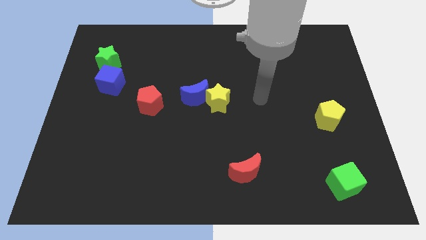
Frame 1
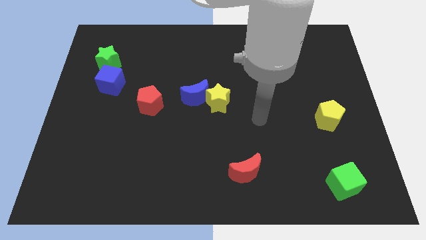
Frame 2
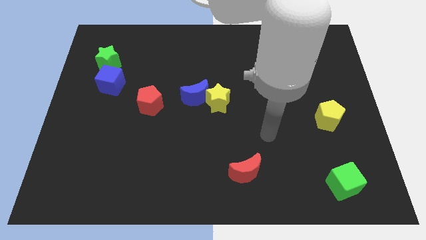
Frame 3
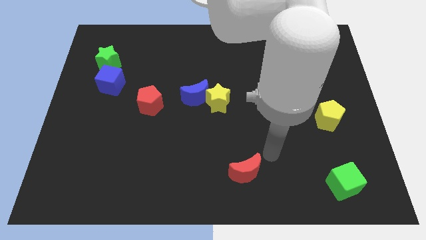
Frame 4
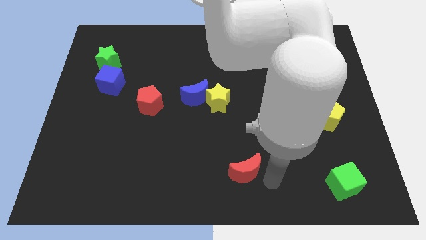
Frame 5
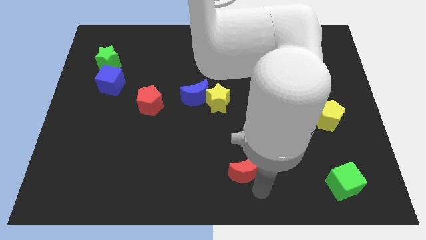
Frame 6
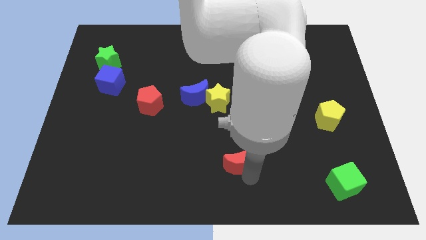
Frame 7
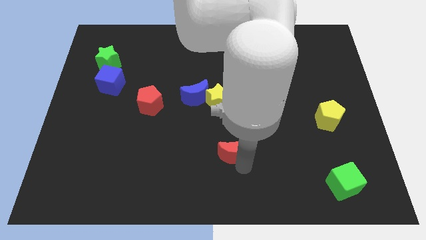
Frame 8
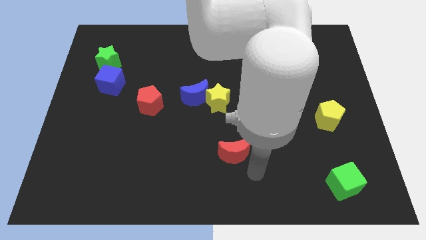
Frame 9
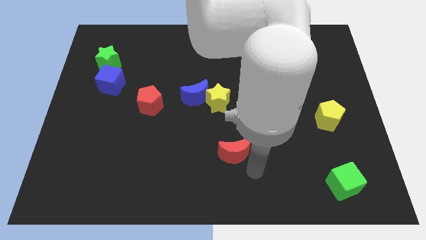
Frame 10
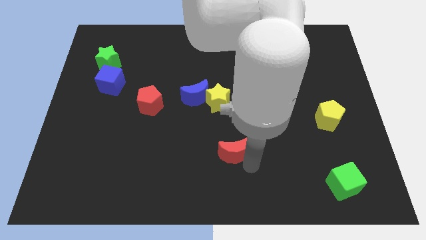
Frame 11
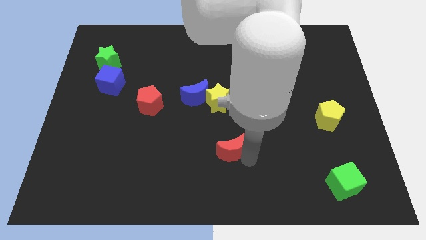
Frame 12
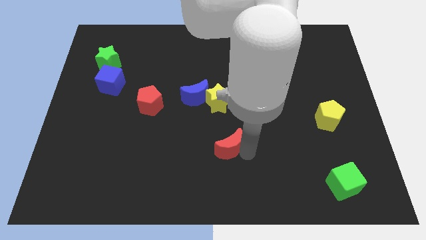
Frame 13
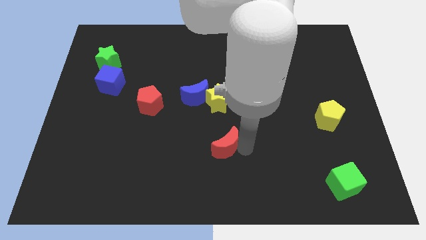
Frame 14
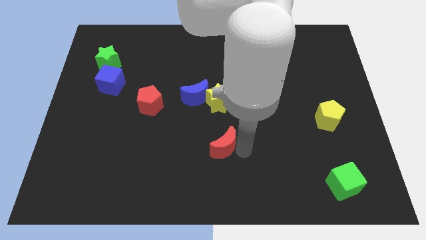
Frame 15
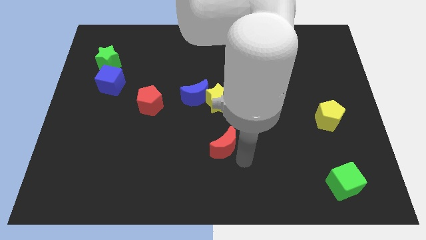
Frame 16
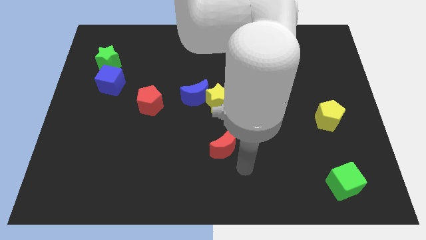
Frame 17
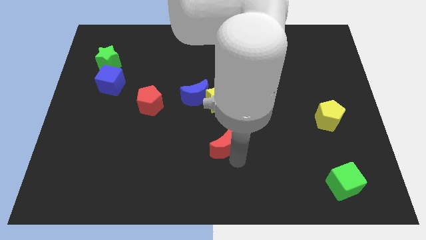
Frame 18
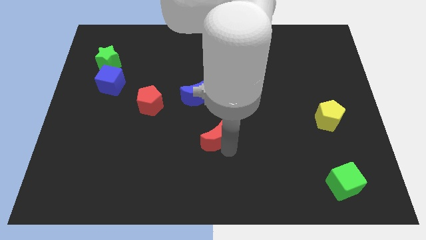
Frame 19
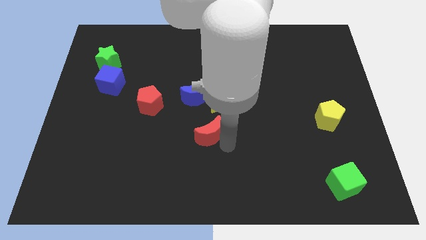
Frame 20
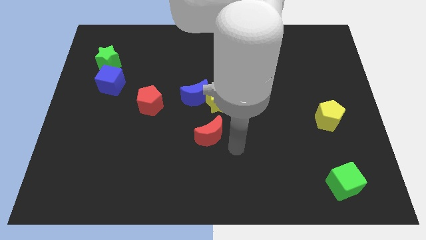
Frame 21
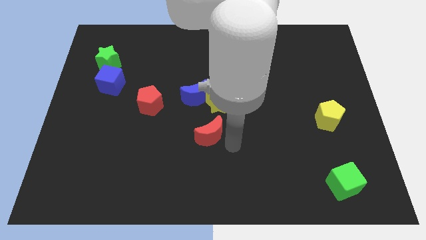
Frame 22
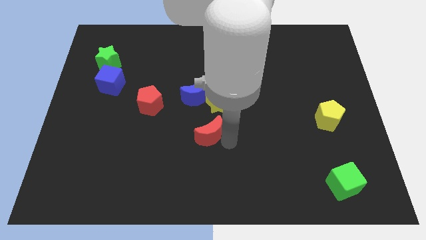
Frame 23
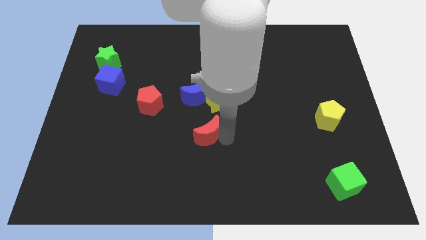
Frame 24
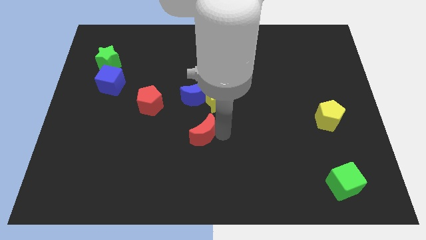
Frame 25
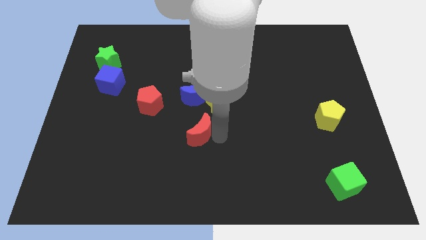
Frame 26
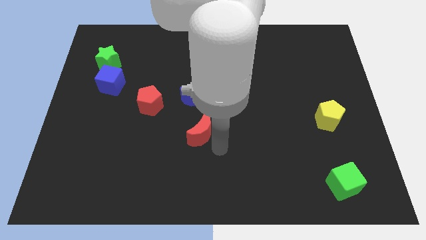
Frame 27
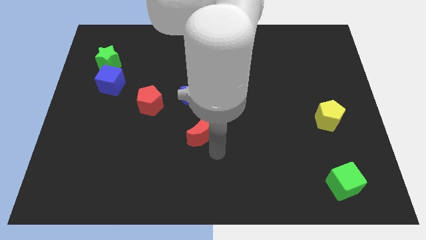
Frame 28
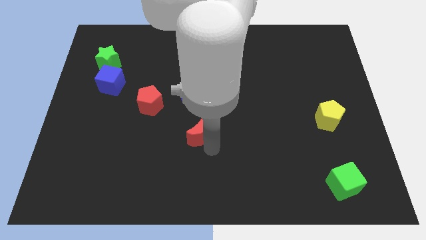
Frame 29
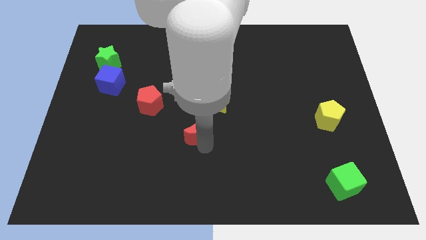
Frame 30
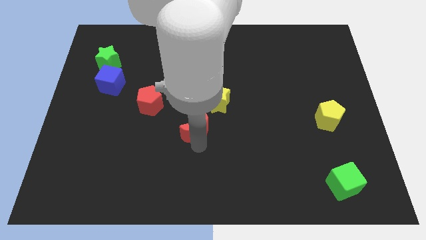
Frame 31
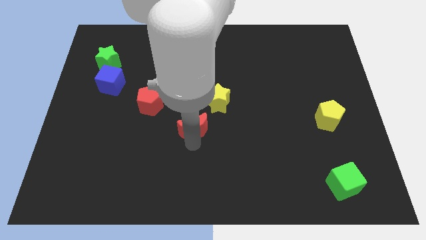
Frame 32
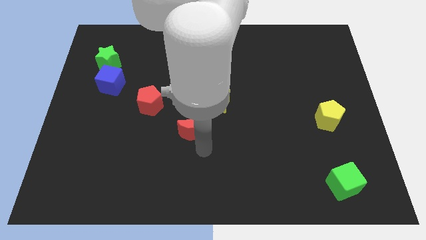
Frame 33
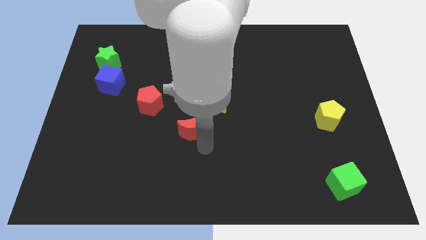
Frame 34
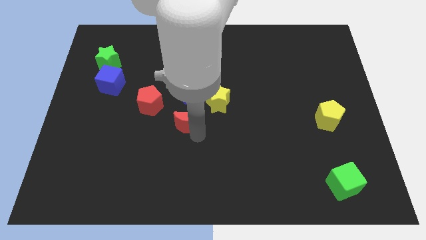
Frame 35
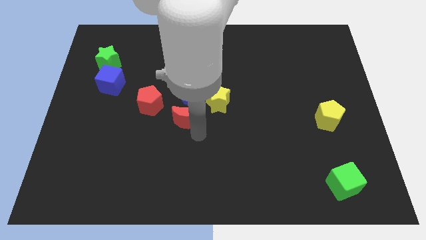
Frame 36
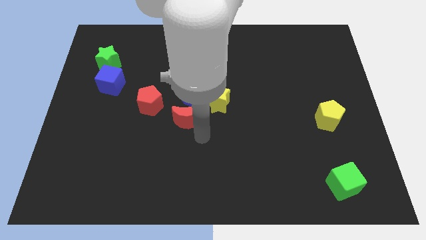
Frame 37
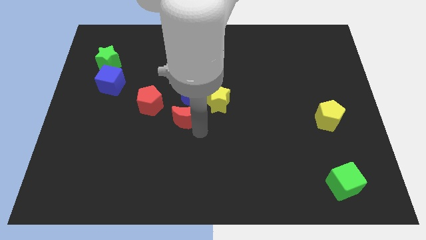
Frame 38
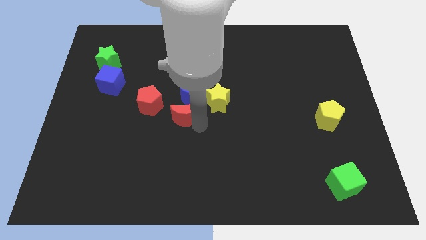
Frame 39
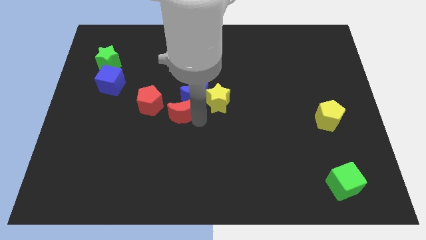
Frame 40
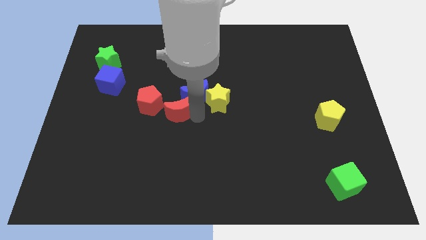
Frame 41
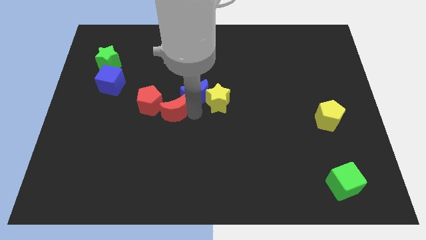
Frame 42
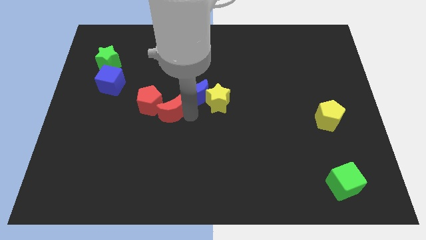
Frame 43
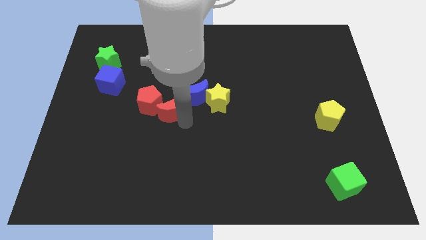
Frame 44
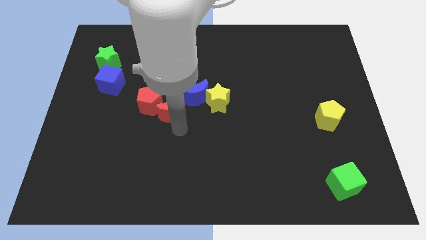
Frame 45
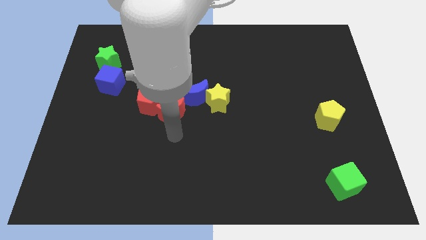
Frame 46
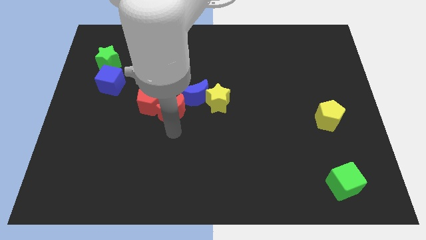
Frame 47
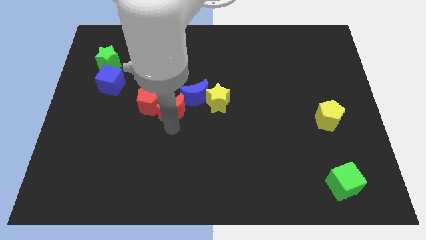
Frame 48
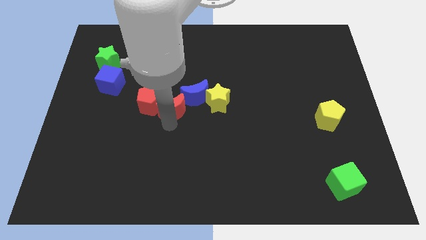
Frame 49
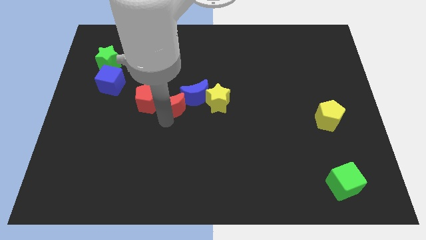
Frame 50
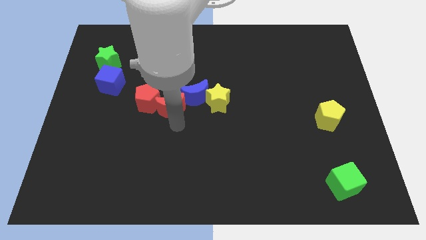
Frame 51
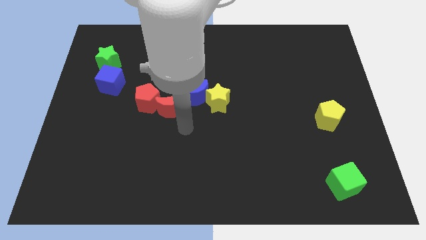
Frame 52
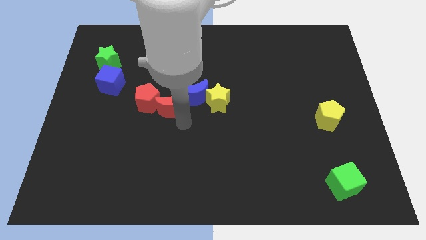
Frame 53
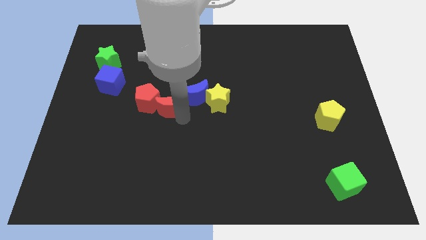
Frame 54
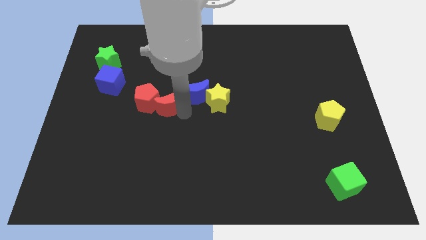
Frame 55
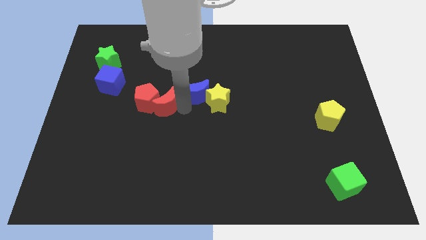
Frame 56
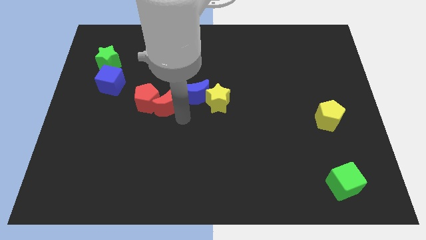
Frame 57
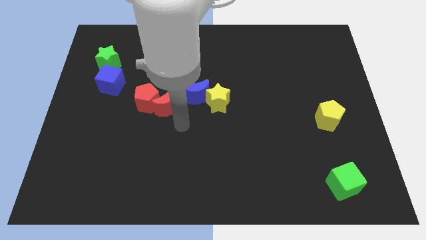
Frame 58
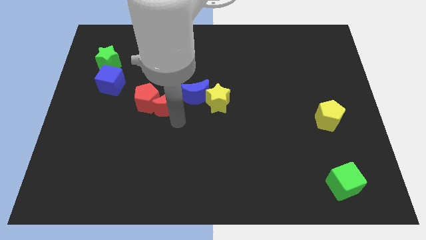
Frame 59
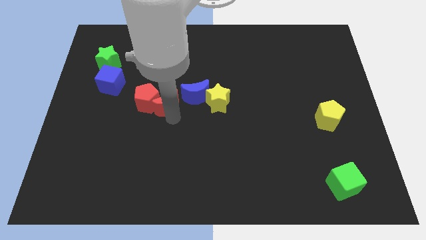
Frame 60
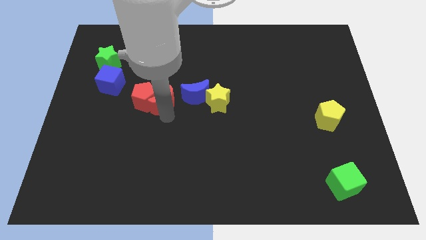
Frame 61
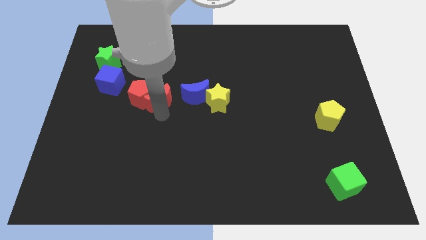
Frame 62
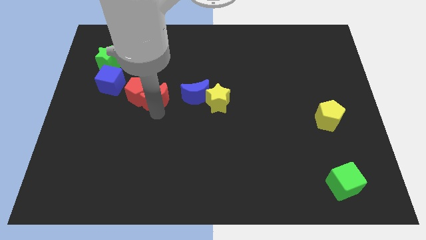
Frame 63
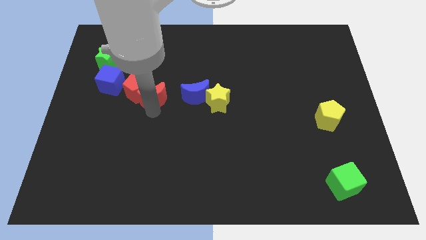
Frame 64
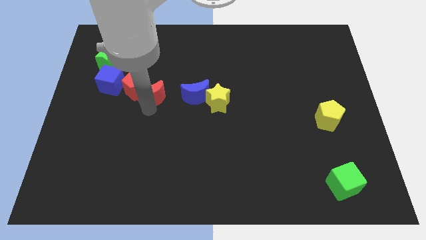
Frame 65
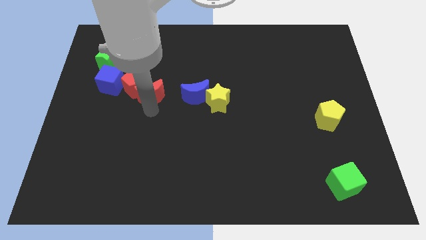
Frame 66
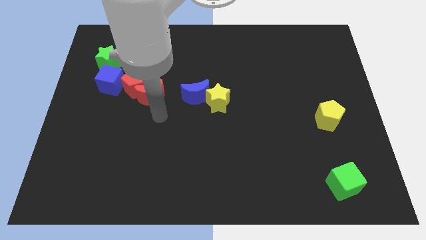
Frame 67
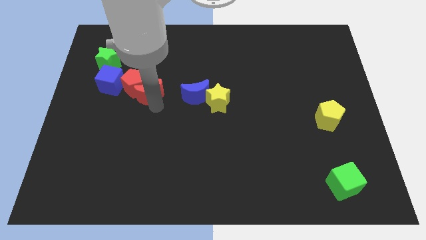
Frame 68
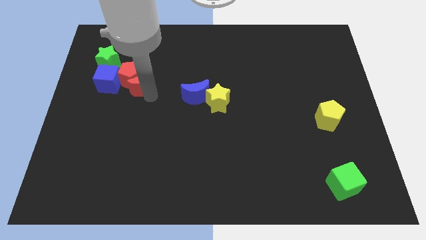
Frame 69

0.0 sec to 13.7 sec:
put the red moon to the bottom right side of the green star
